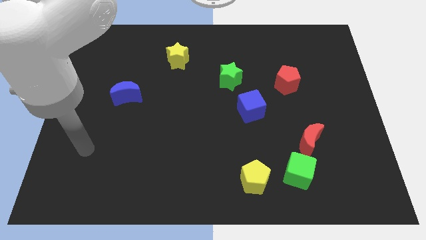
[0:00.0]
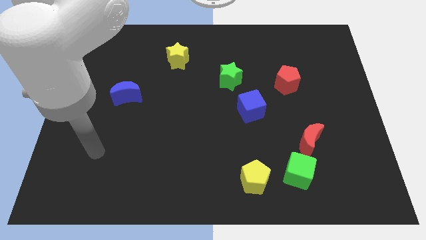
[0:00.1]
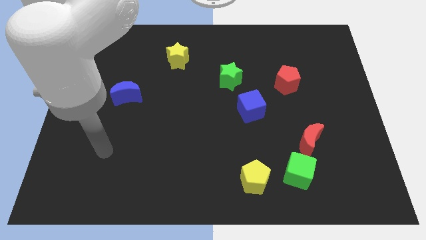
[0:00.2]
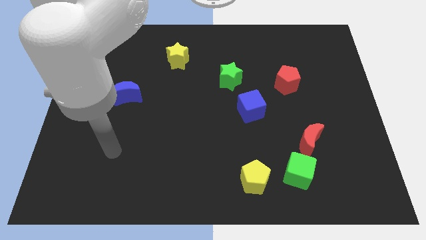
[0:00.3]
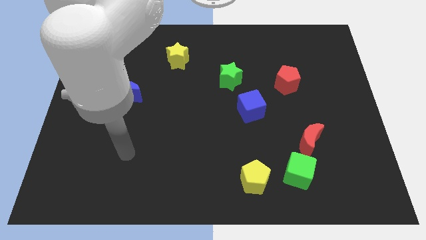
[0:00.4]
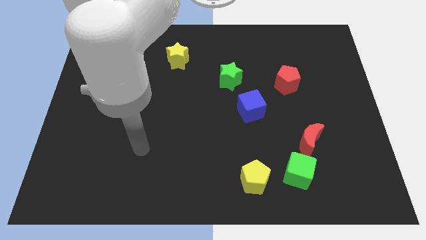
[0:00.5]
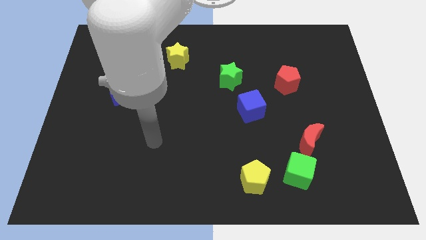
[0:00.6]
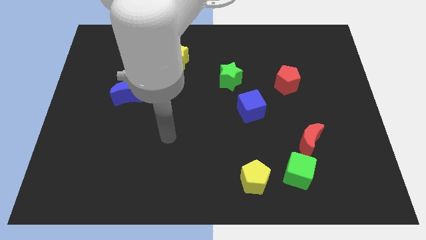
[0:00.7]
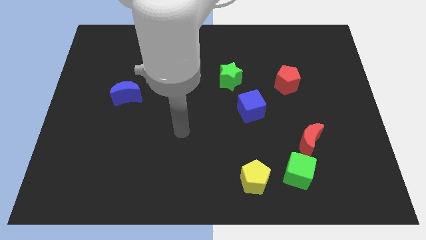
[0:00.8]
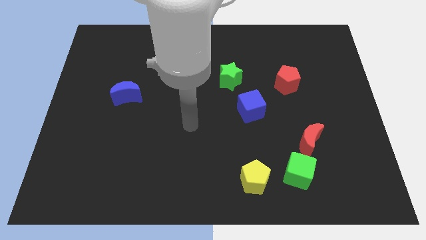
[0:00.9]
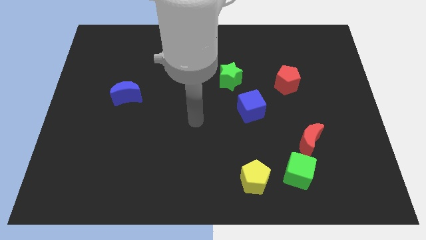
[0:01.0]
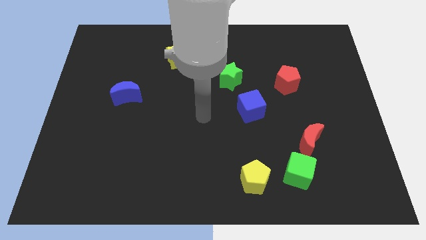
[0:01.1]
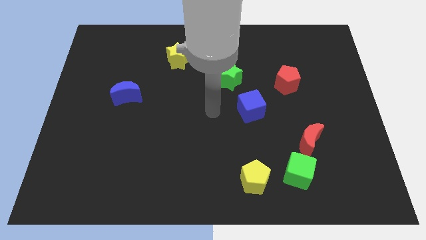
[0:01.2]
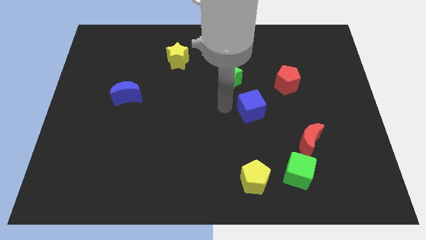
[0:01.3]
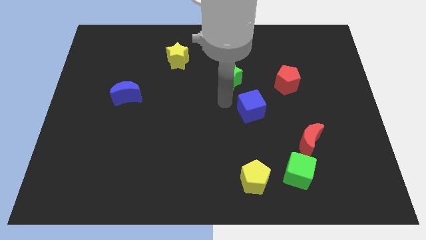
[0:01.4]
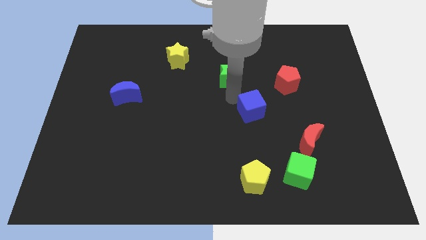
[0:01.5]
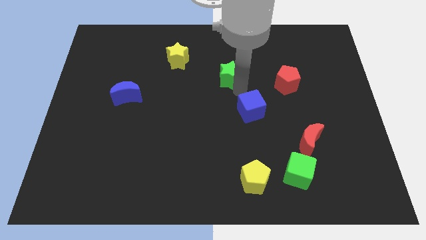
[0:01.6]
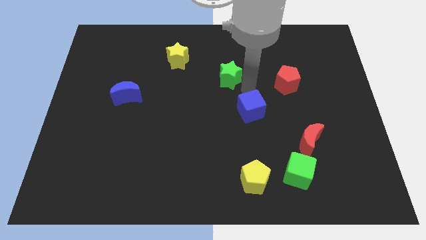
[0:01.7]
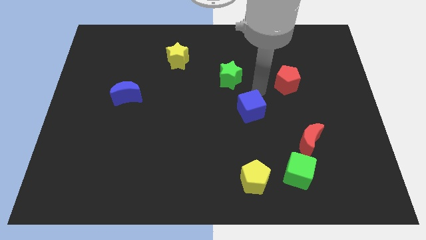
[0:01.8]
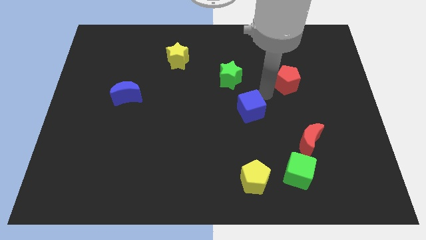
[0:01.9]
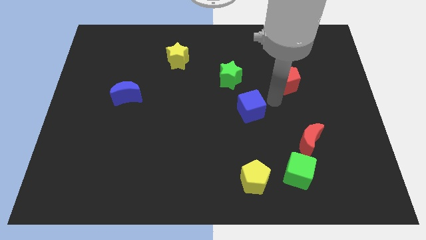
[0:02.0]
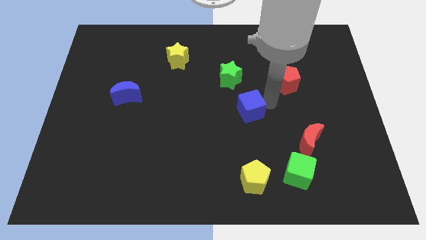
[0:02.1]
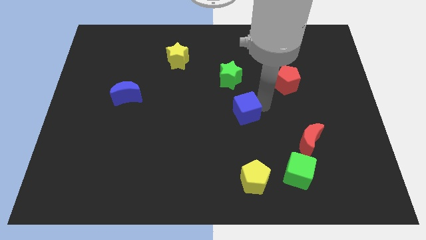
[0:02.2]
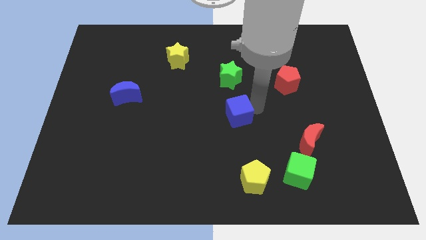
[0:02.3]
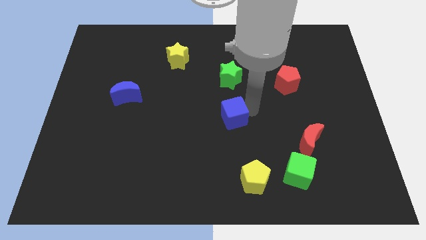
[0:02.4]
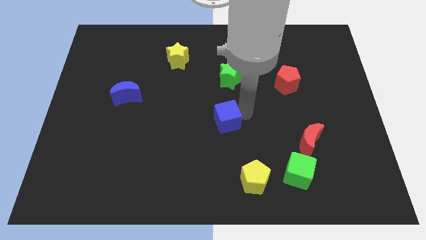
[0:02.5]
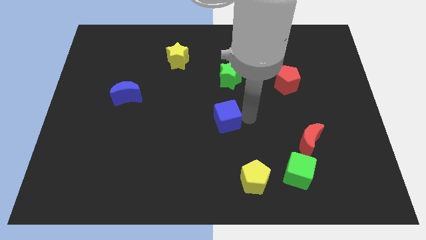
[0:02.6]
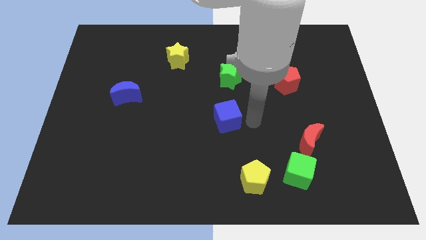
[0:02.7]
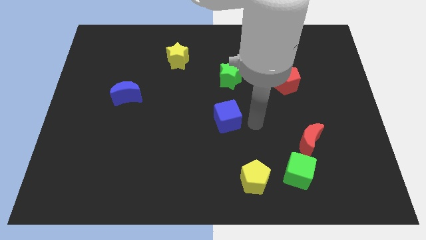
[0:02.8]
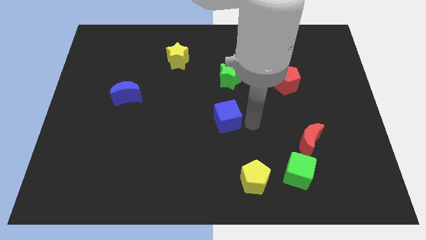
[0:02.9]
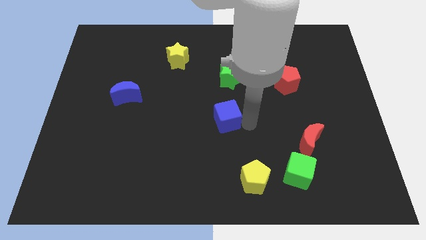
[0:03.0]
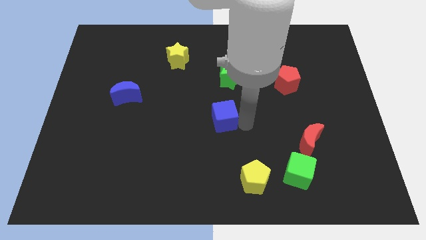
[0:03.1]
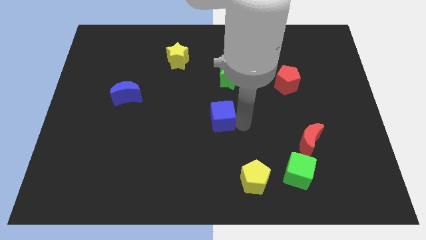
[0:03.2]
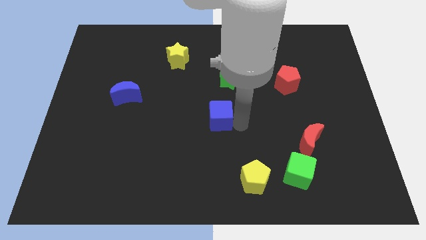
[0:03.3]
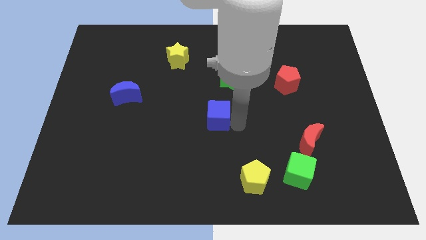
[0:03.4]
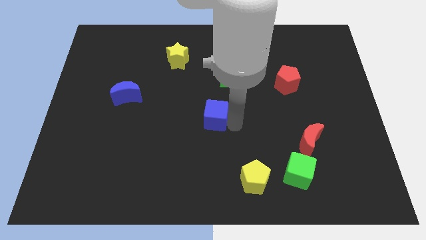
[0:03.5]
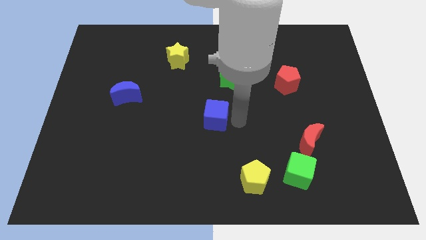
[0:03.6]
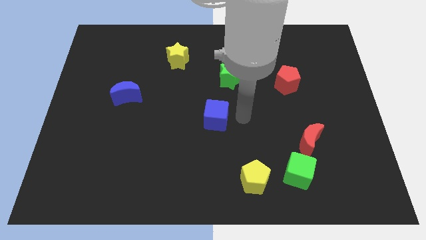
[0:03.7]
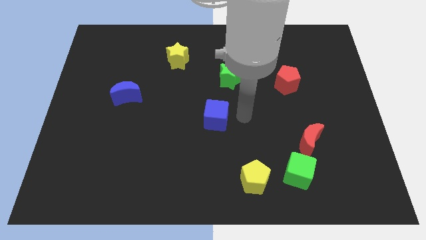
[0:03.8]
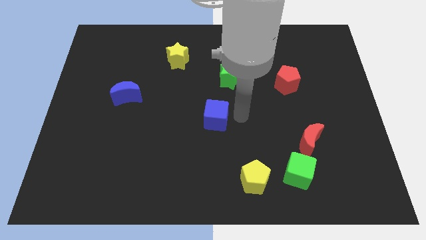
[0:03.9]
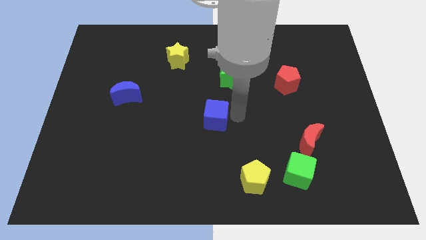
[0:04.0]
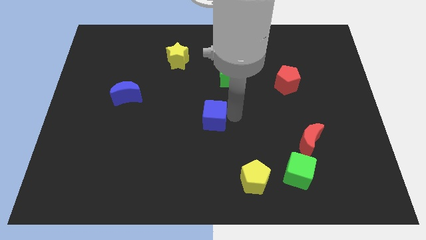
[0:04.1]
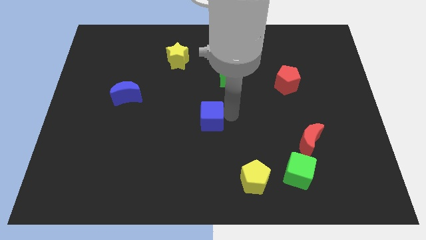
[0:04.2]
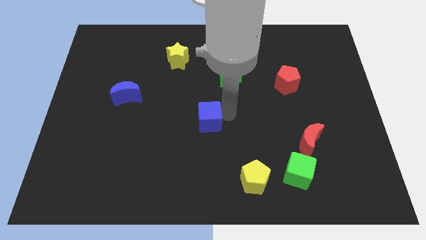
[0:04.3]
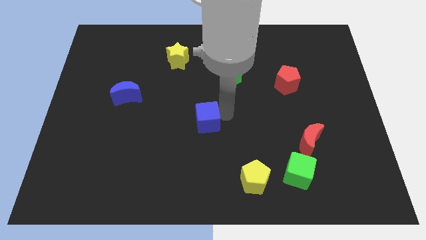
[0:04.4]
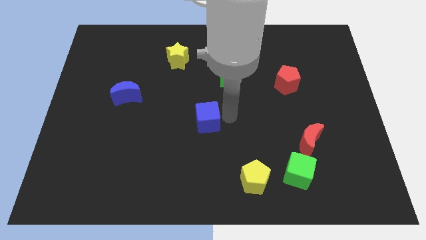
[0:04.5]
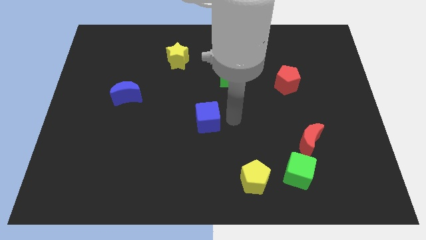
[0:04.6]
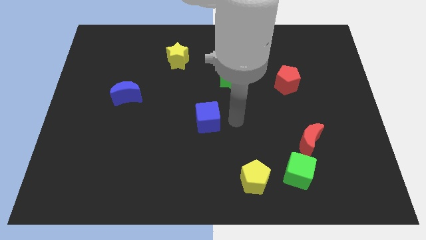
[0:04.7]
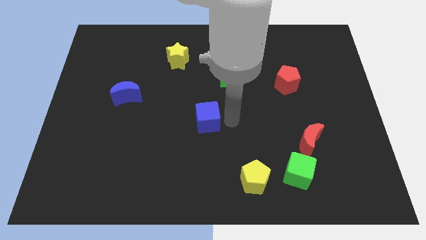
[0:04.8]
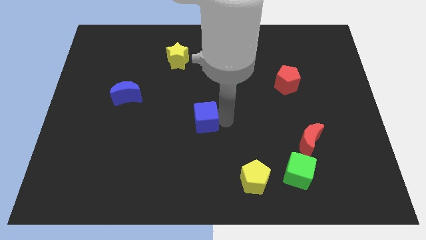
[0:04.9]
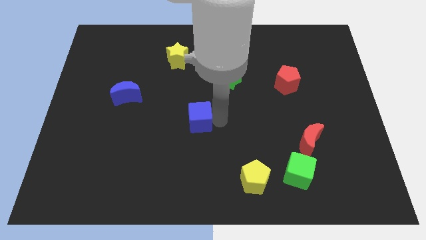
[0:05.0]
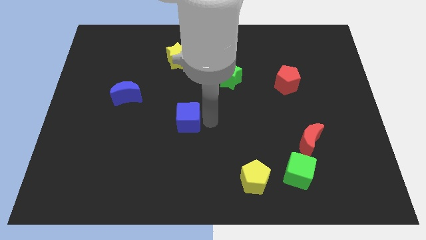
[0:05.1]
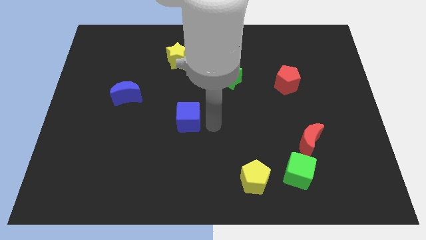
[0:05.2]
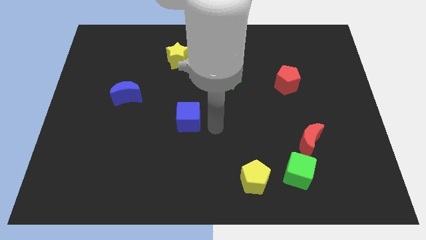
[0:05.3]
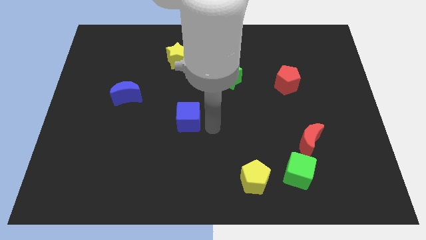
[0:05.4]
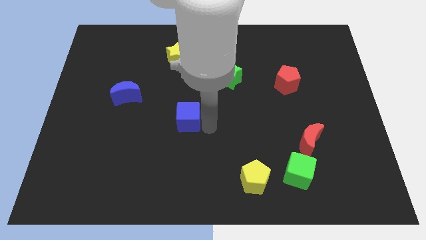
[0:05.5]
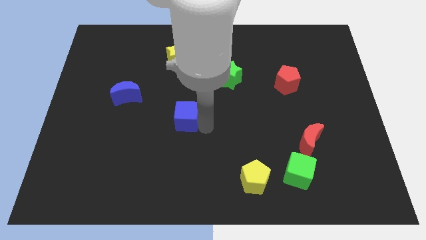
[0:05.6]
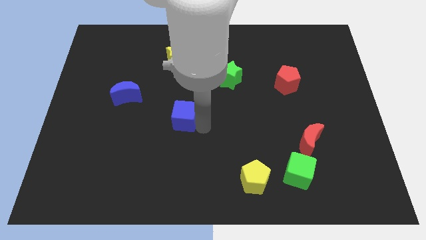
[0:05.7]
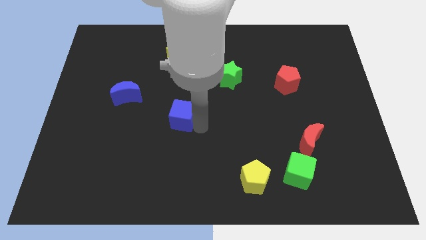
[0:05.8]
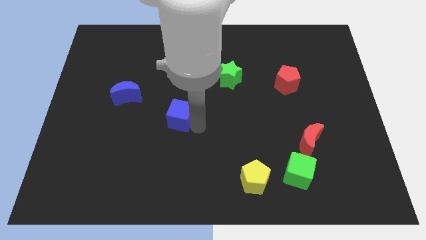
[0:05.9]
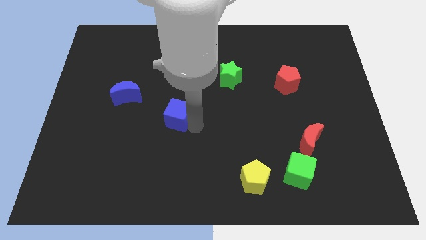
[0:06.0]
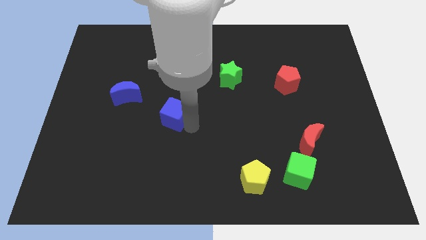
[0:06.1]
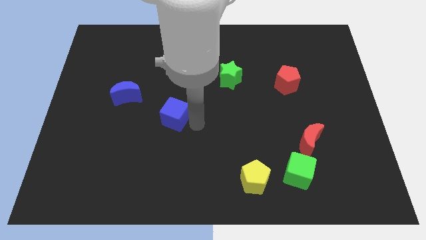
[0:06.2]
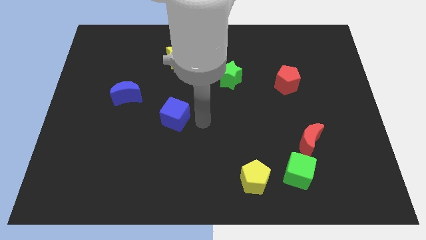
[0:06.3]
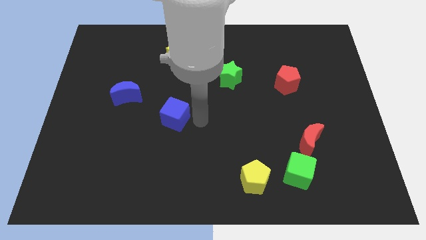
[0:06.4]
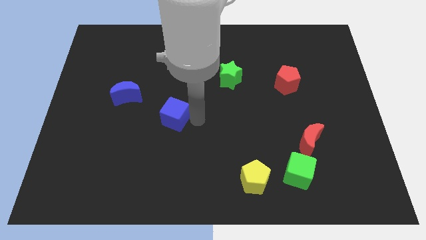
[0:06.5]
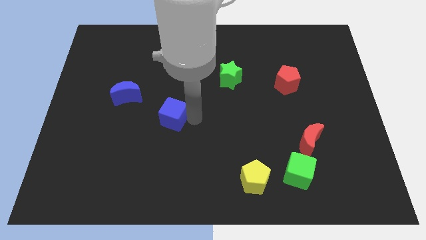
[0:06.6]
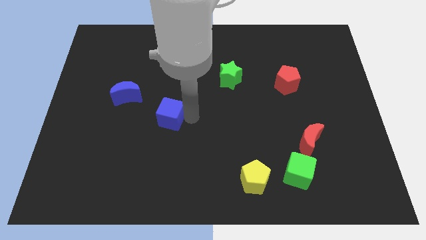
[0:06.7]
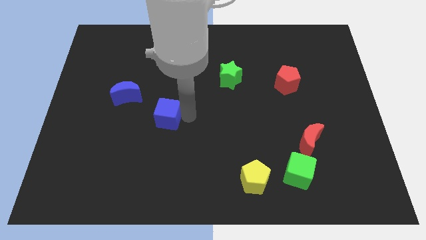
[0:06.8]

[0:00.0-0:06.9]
push the blue cube to the bottom right of the blue moon
